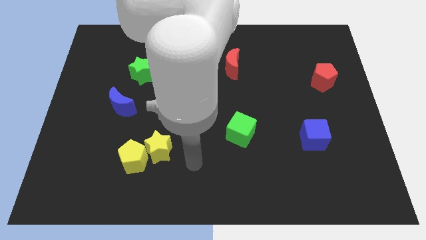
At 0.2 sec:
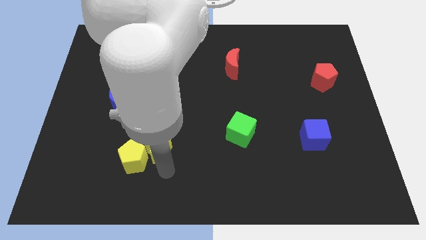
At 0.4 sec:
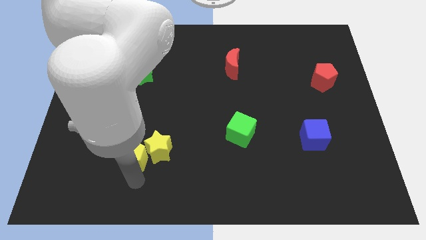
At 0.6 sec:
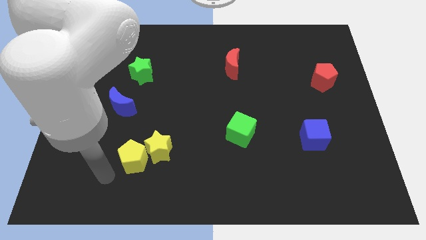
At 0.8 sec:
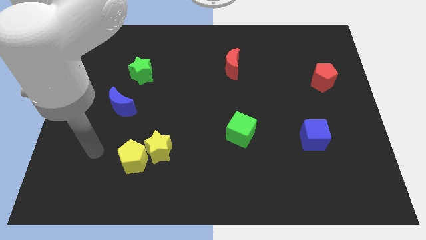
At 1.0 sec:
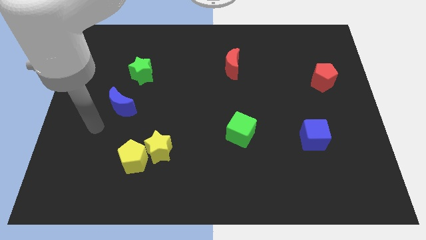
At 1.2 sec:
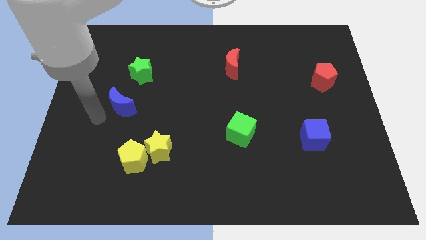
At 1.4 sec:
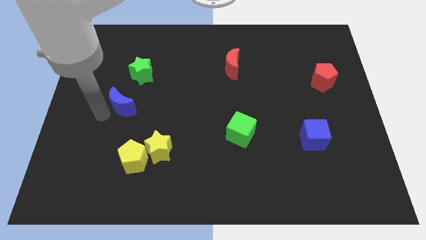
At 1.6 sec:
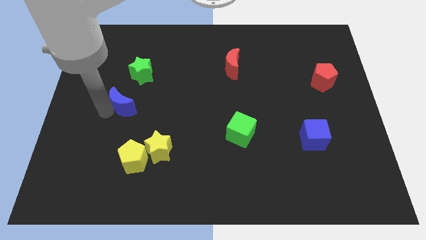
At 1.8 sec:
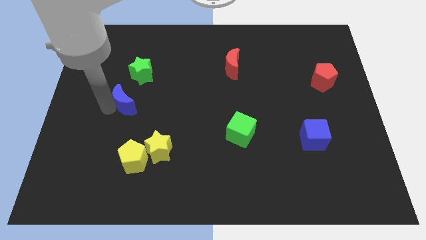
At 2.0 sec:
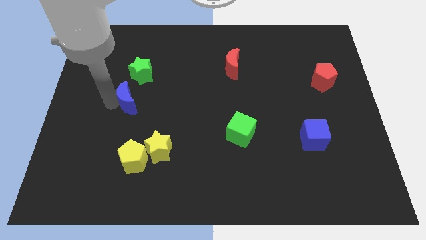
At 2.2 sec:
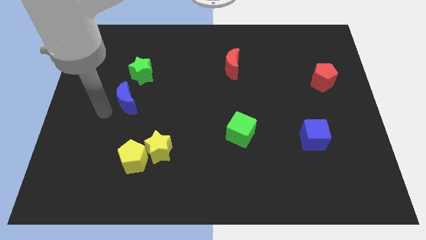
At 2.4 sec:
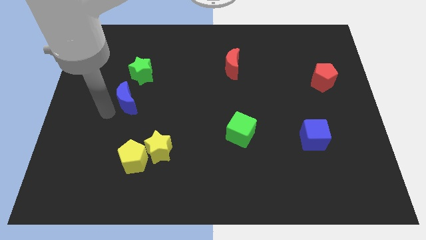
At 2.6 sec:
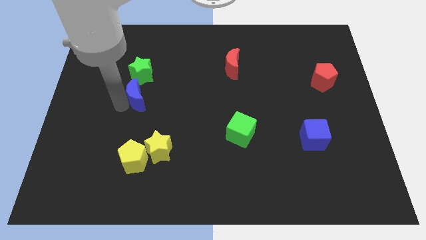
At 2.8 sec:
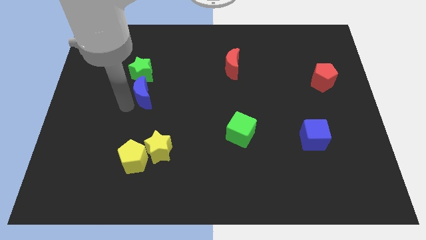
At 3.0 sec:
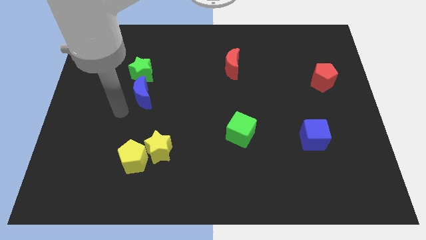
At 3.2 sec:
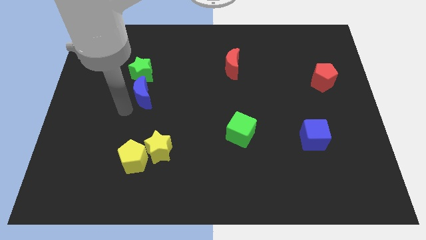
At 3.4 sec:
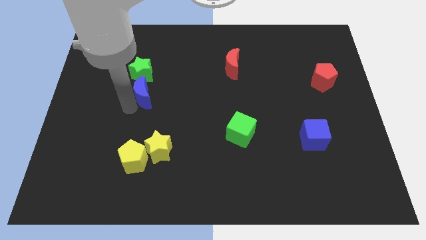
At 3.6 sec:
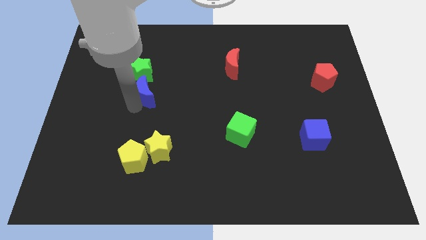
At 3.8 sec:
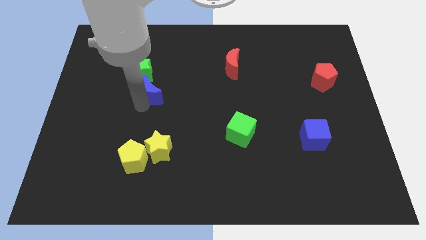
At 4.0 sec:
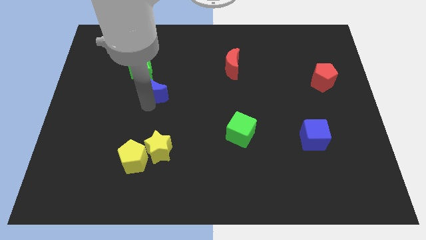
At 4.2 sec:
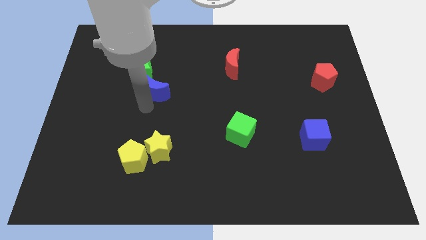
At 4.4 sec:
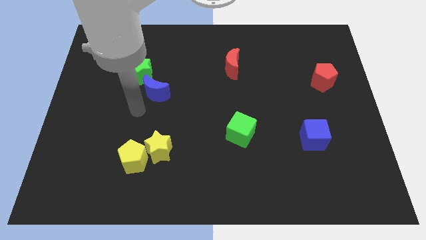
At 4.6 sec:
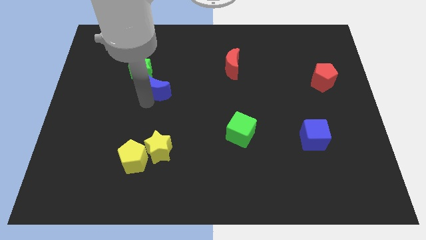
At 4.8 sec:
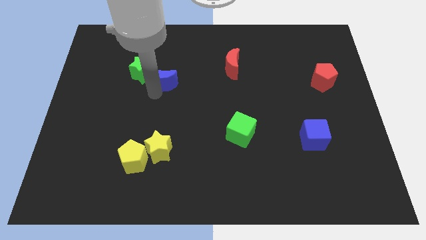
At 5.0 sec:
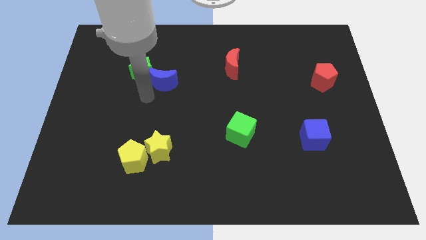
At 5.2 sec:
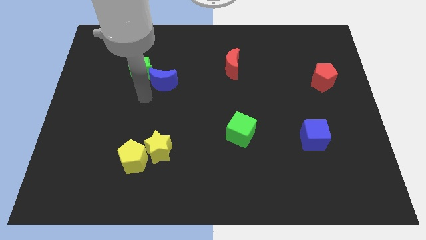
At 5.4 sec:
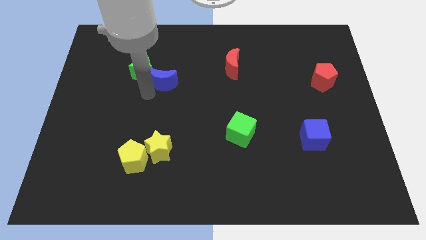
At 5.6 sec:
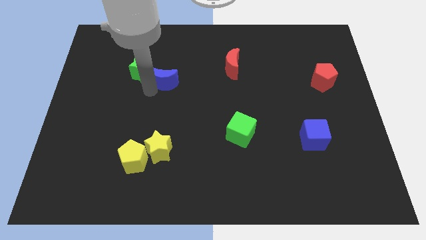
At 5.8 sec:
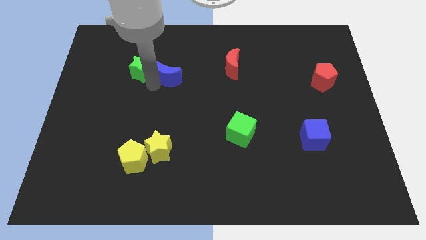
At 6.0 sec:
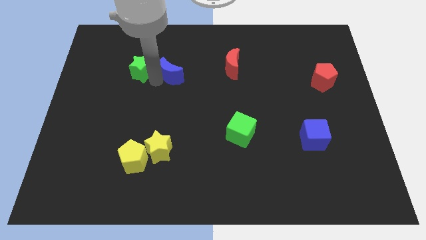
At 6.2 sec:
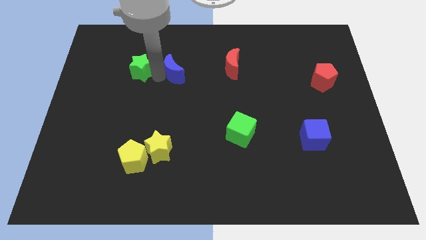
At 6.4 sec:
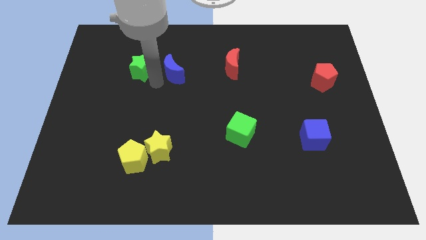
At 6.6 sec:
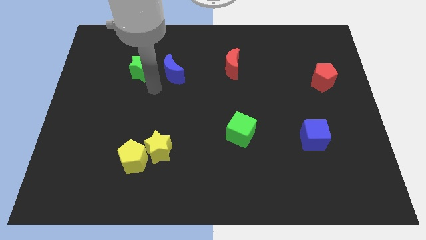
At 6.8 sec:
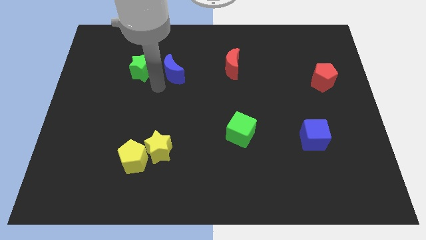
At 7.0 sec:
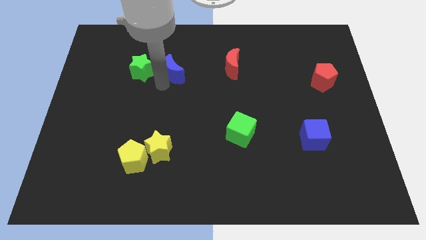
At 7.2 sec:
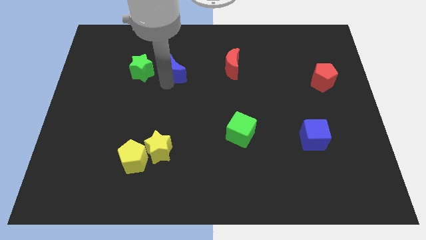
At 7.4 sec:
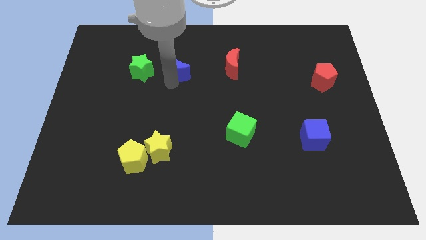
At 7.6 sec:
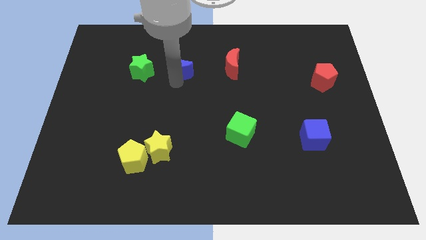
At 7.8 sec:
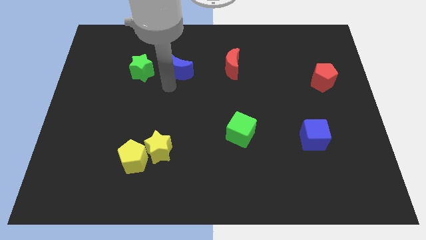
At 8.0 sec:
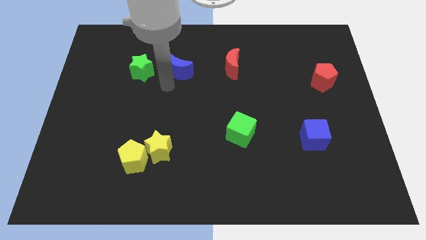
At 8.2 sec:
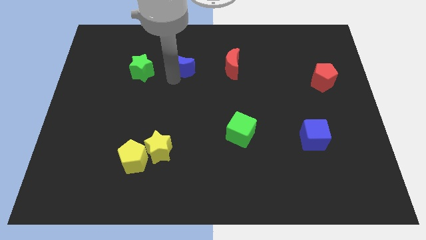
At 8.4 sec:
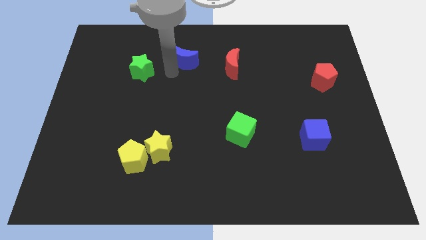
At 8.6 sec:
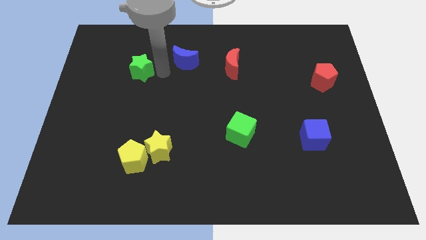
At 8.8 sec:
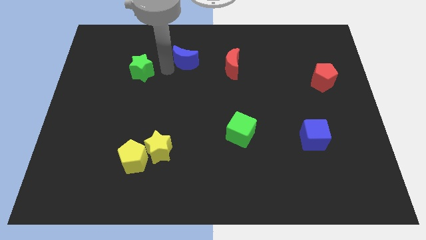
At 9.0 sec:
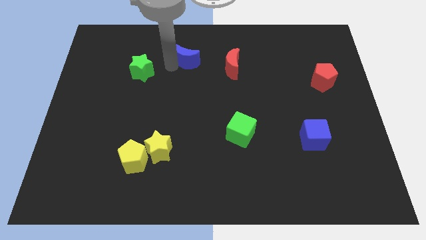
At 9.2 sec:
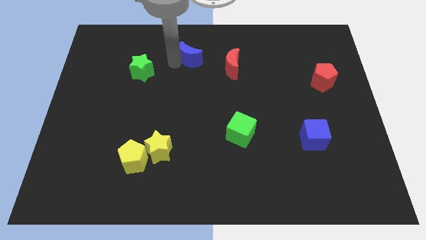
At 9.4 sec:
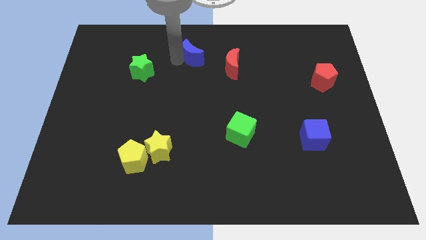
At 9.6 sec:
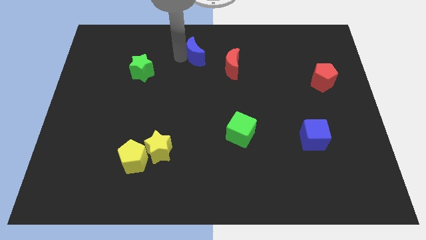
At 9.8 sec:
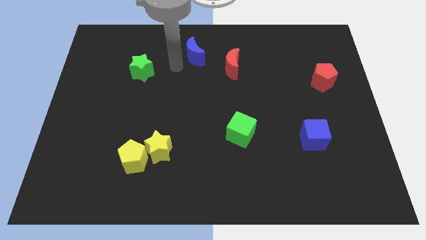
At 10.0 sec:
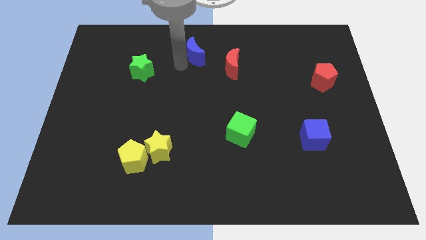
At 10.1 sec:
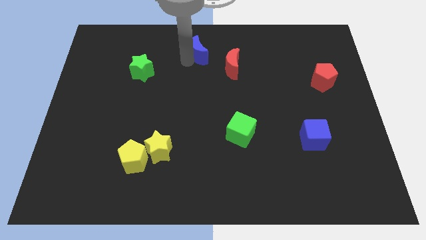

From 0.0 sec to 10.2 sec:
push the blue moon to the top
